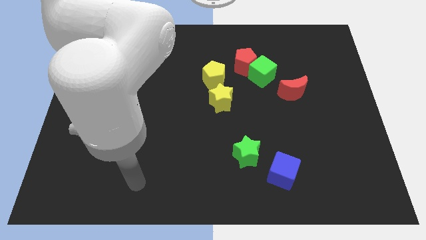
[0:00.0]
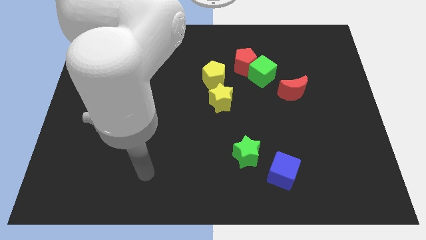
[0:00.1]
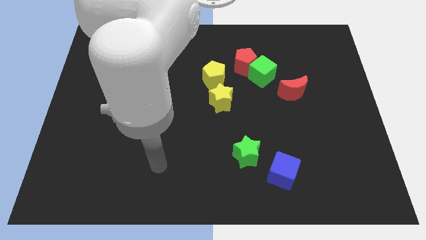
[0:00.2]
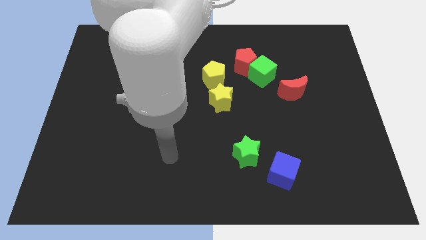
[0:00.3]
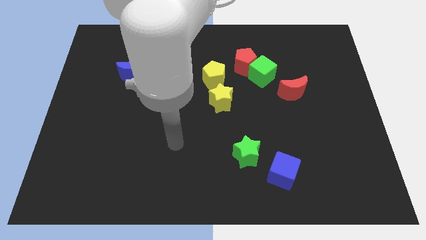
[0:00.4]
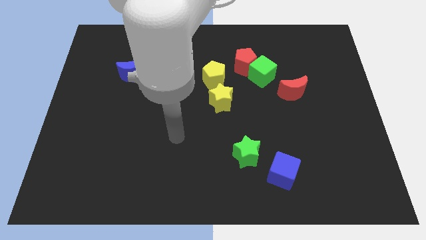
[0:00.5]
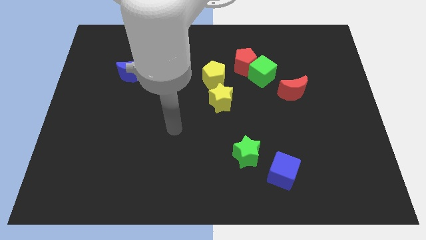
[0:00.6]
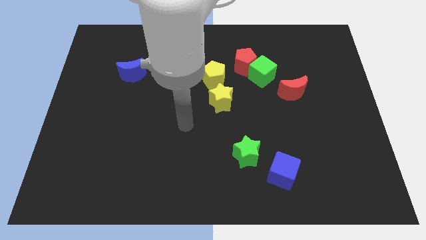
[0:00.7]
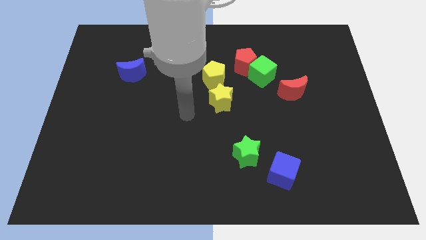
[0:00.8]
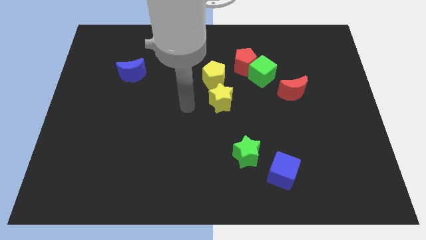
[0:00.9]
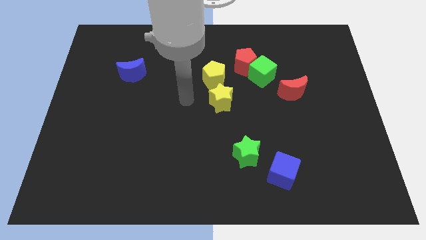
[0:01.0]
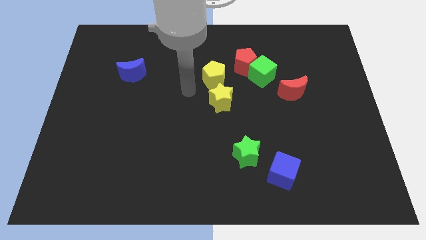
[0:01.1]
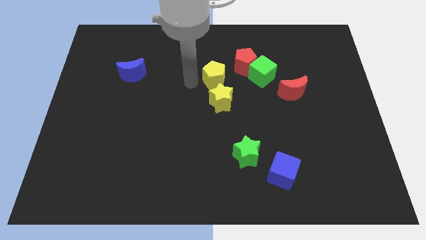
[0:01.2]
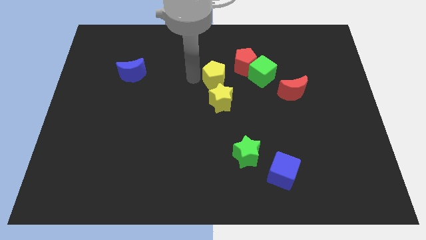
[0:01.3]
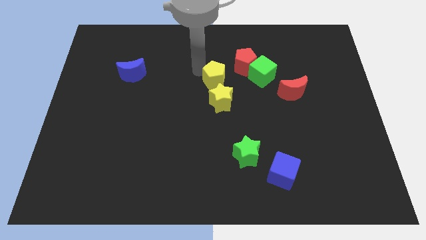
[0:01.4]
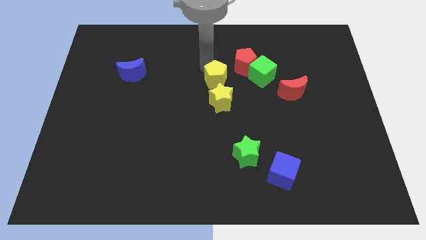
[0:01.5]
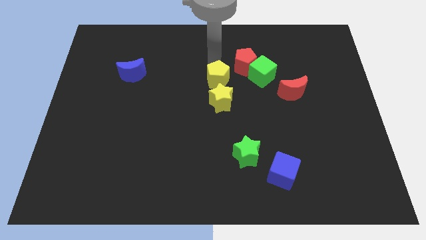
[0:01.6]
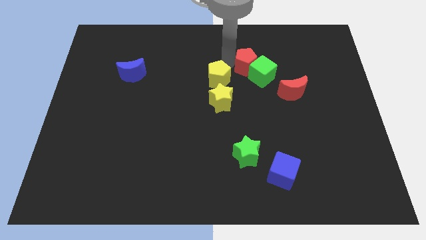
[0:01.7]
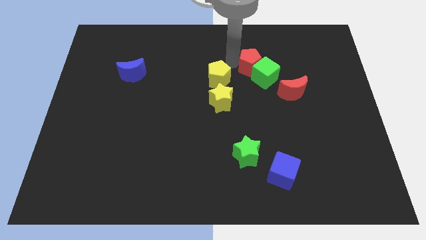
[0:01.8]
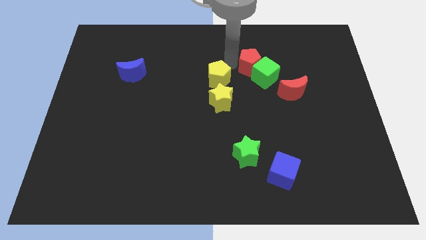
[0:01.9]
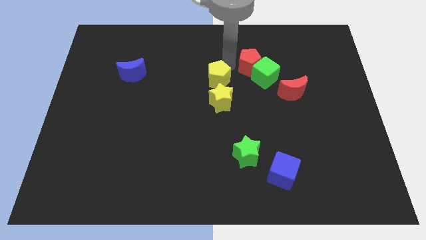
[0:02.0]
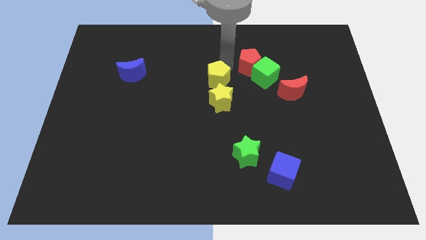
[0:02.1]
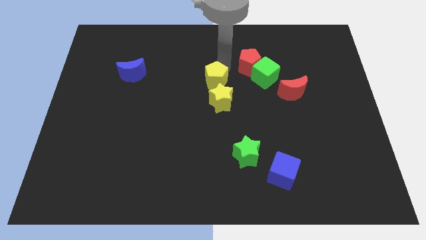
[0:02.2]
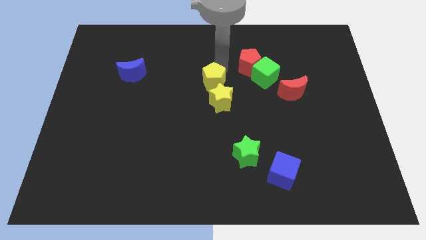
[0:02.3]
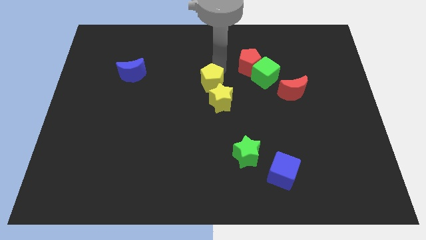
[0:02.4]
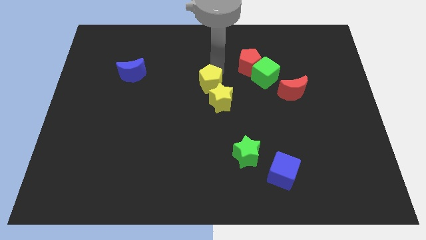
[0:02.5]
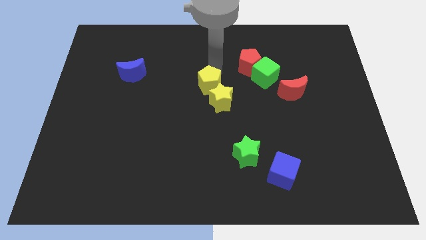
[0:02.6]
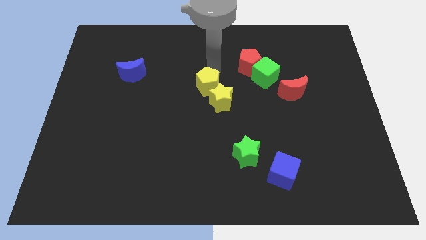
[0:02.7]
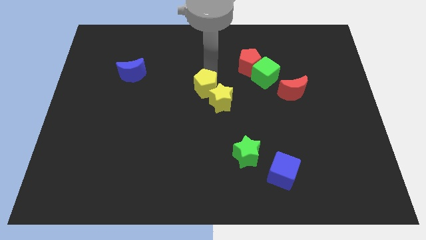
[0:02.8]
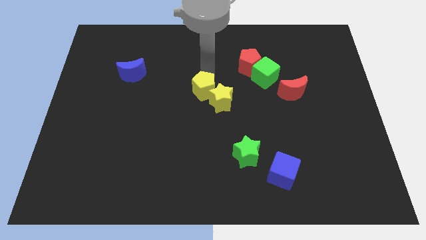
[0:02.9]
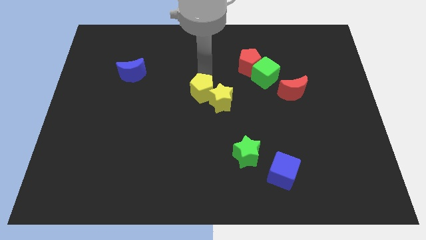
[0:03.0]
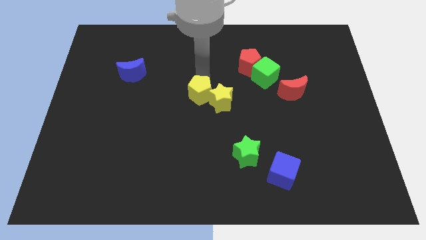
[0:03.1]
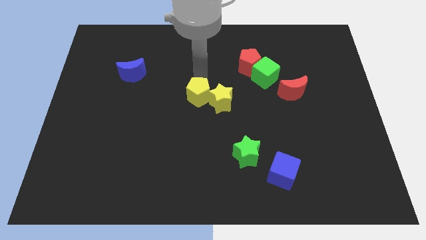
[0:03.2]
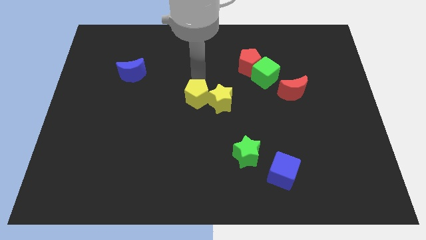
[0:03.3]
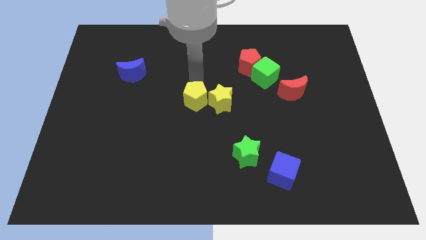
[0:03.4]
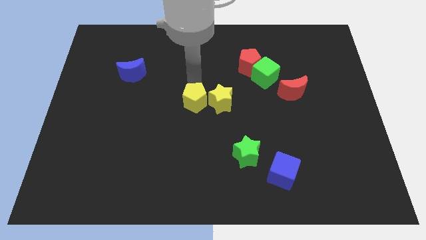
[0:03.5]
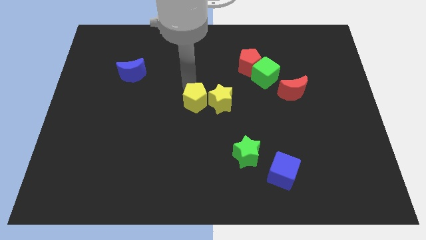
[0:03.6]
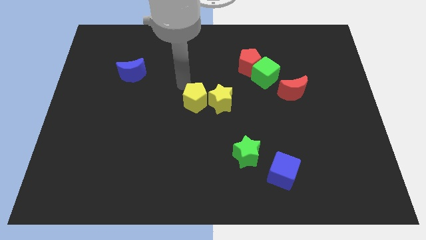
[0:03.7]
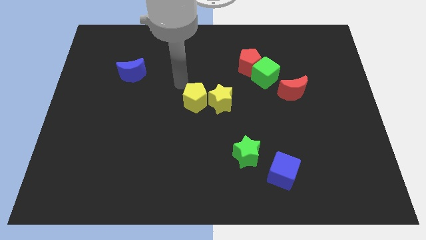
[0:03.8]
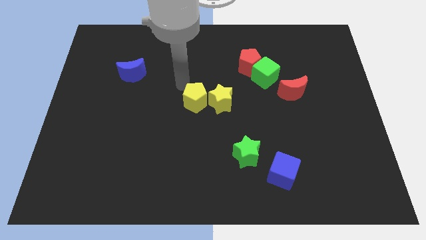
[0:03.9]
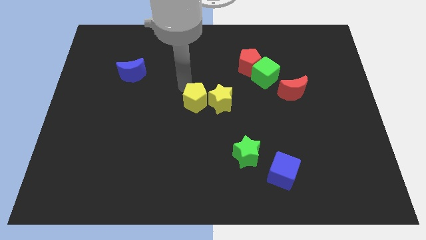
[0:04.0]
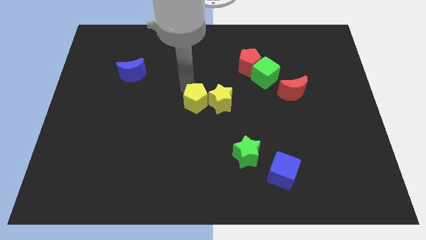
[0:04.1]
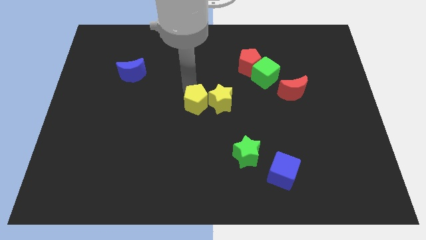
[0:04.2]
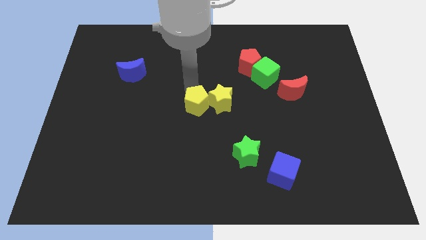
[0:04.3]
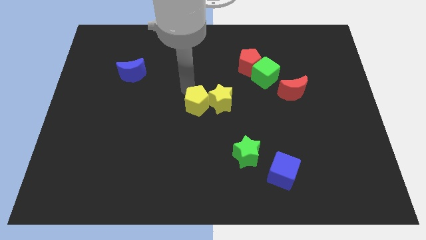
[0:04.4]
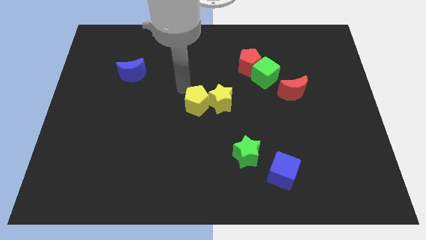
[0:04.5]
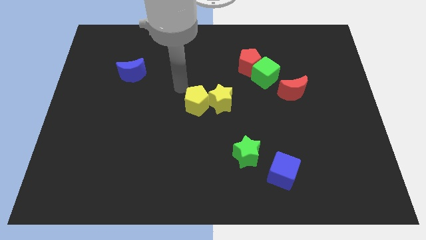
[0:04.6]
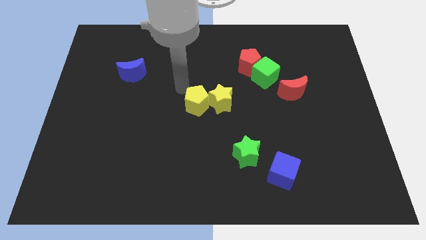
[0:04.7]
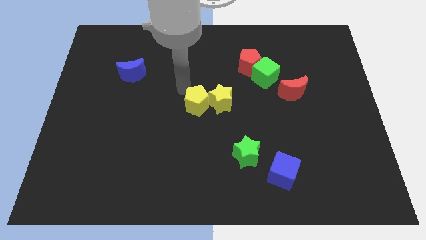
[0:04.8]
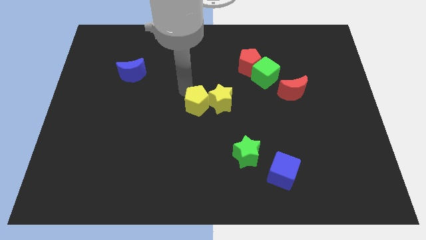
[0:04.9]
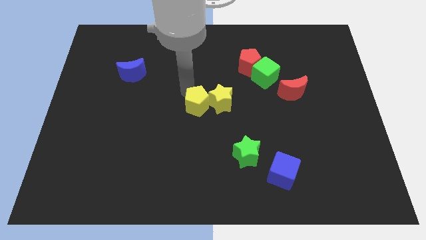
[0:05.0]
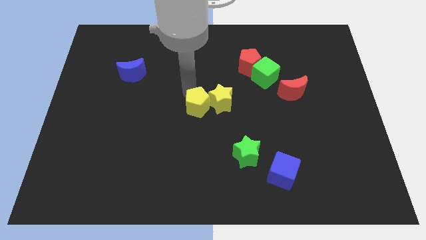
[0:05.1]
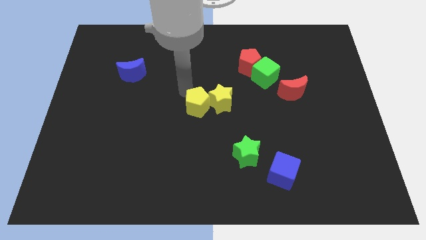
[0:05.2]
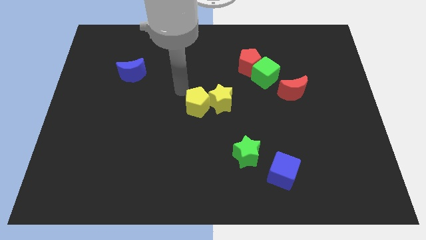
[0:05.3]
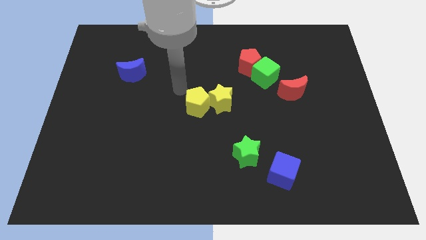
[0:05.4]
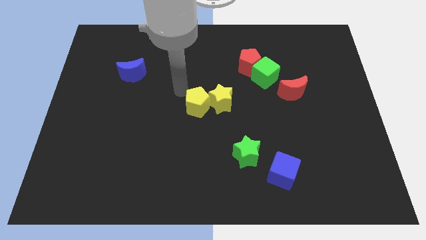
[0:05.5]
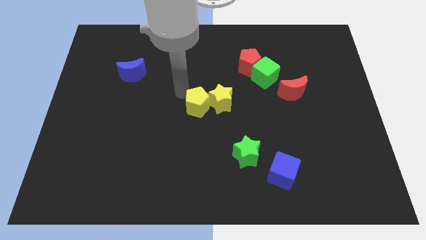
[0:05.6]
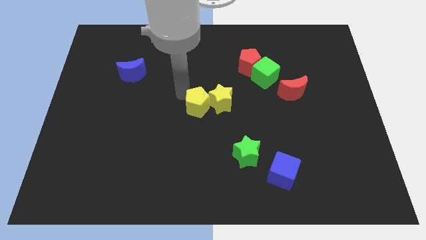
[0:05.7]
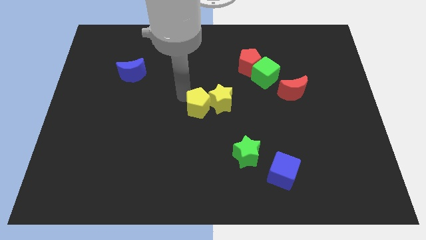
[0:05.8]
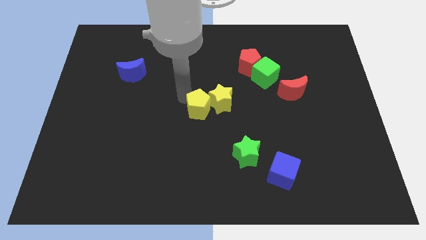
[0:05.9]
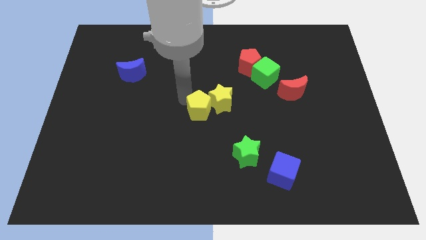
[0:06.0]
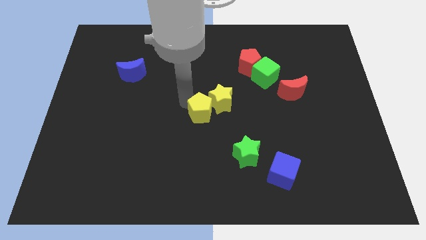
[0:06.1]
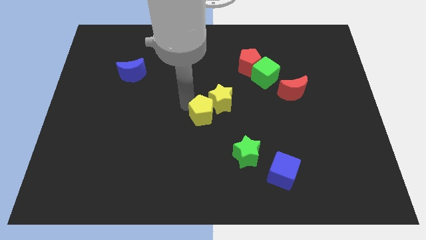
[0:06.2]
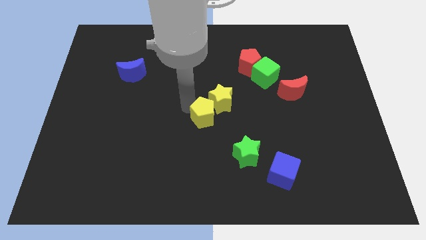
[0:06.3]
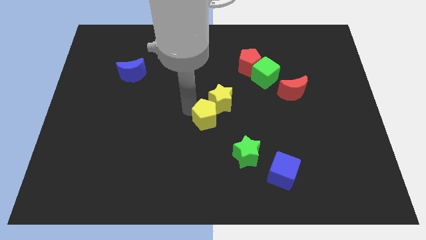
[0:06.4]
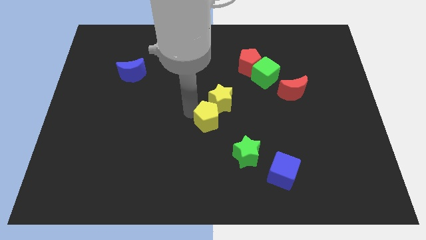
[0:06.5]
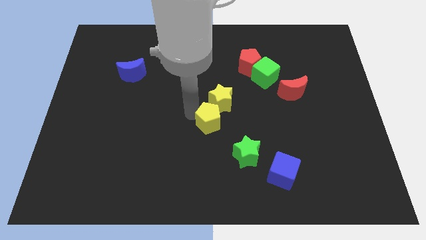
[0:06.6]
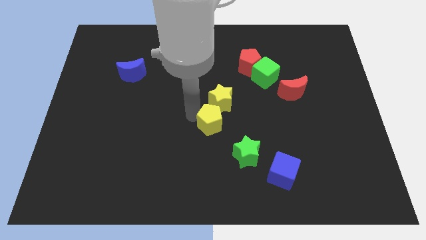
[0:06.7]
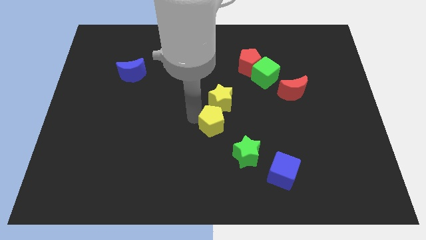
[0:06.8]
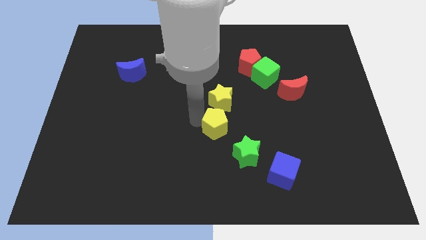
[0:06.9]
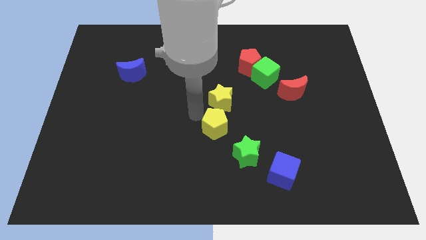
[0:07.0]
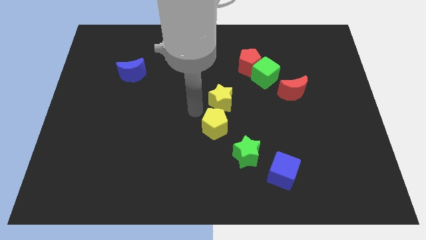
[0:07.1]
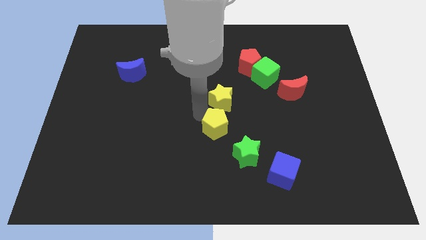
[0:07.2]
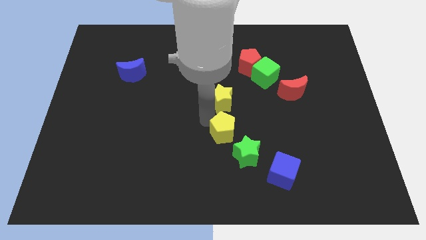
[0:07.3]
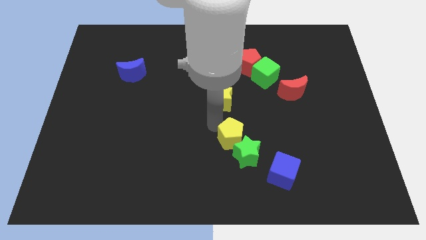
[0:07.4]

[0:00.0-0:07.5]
move the yellow pentagon towards the green star
